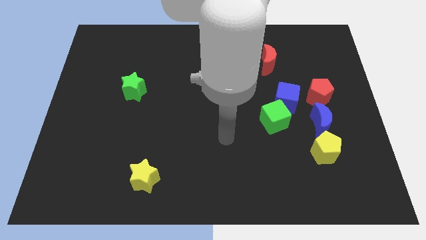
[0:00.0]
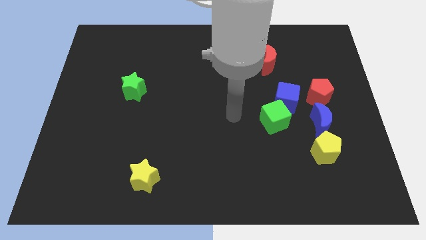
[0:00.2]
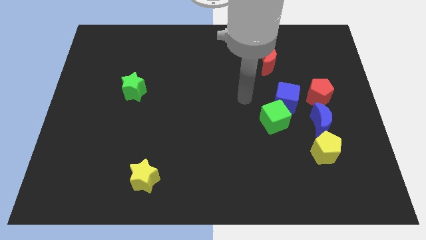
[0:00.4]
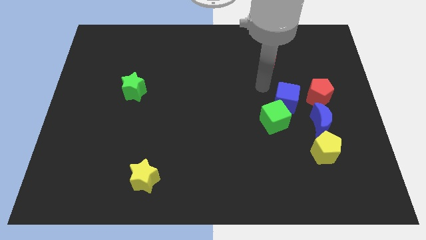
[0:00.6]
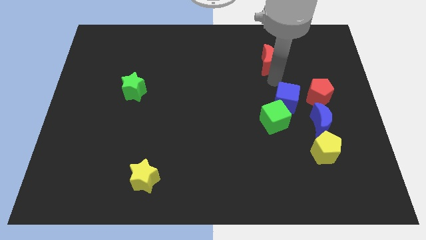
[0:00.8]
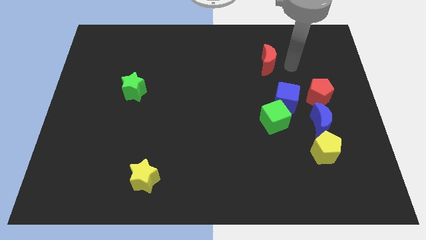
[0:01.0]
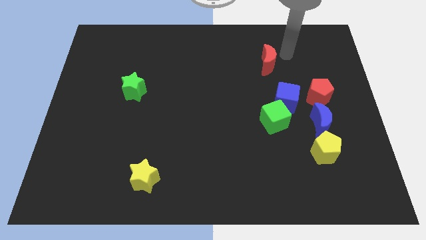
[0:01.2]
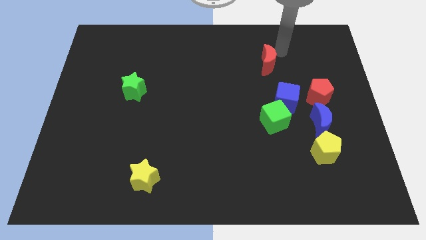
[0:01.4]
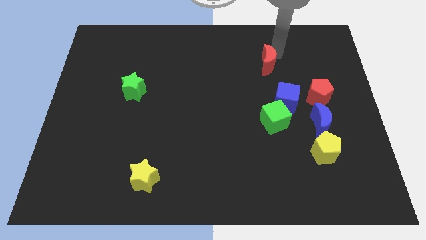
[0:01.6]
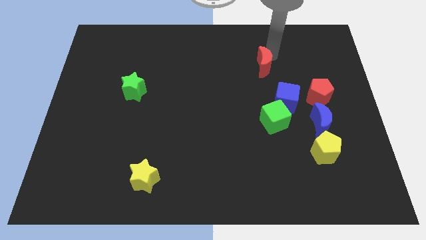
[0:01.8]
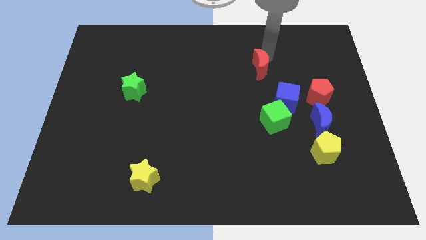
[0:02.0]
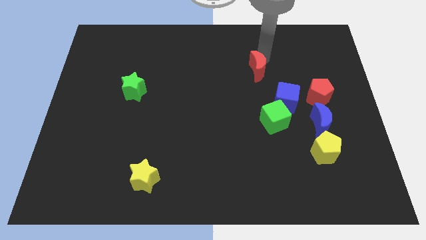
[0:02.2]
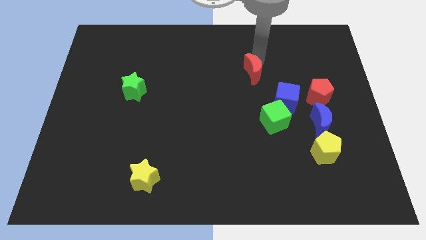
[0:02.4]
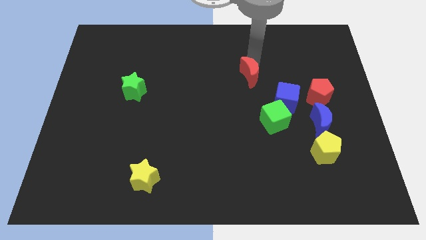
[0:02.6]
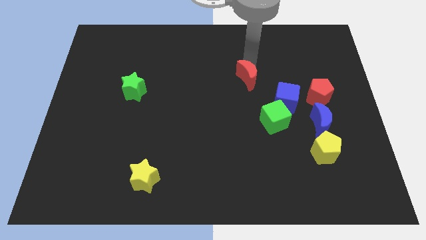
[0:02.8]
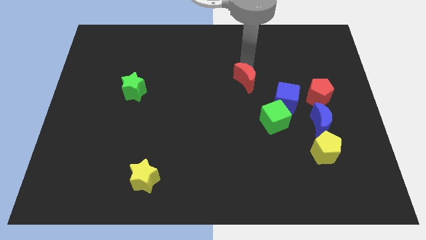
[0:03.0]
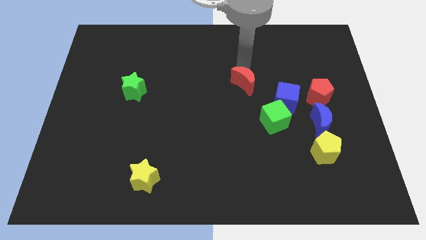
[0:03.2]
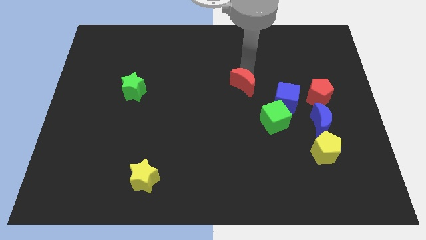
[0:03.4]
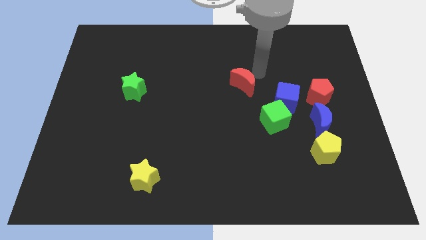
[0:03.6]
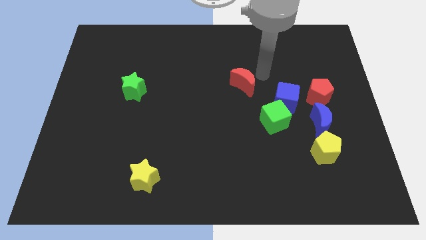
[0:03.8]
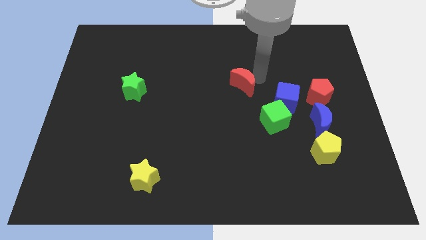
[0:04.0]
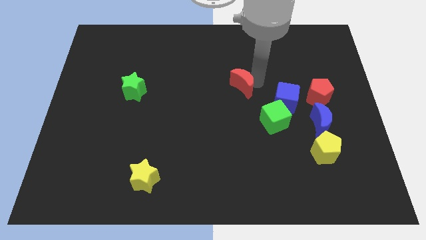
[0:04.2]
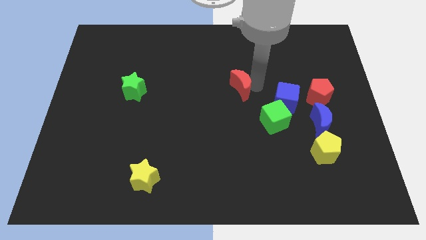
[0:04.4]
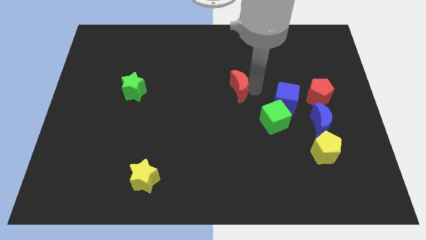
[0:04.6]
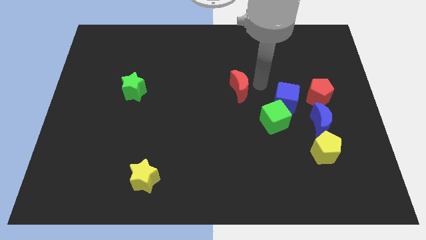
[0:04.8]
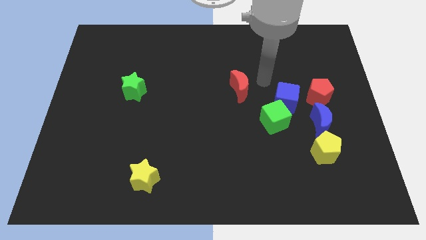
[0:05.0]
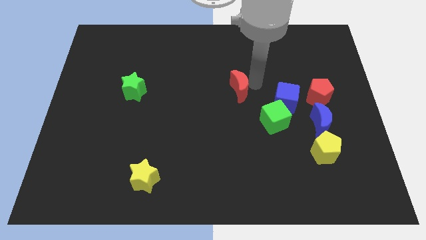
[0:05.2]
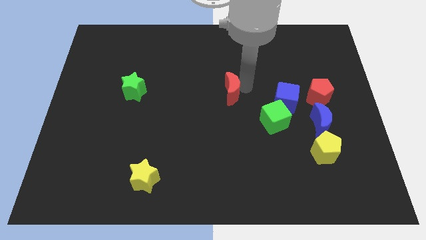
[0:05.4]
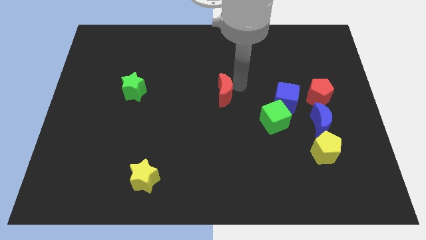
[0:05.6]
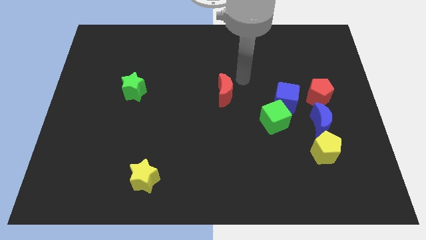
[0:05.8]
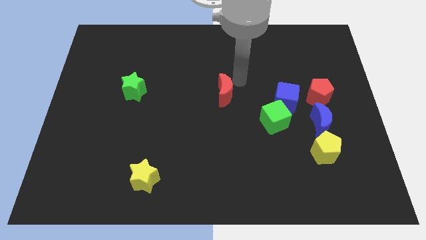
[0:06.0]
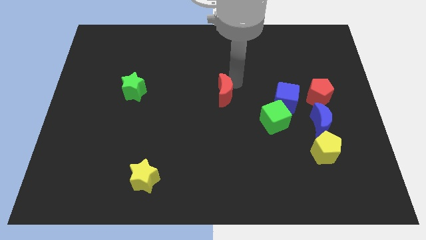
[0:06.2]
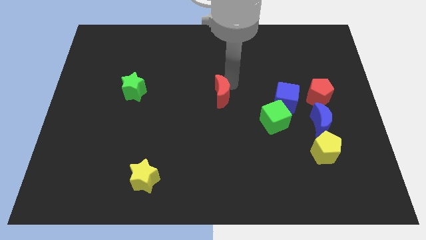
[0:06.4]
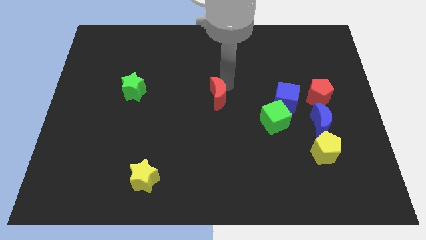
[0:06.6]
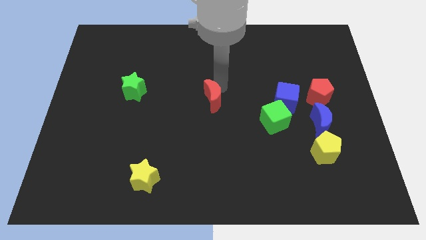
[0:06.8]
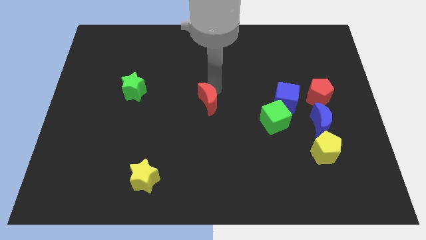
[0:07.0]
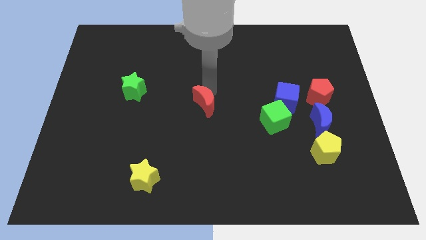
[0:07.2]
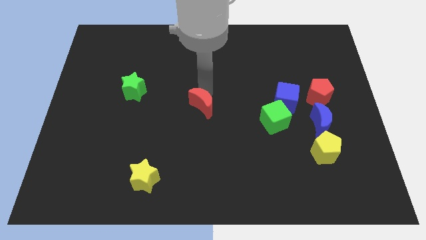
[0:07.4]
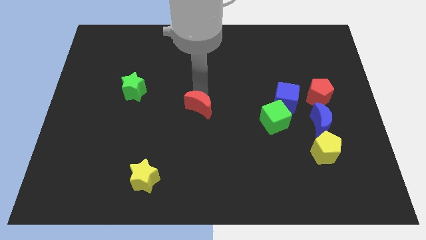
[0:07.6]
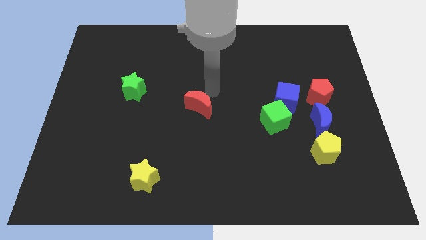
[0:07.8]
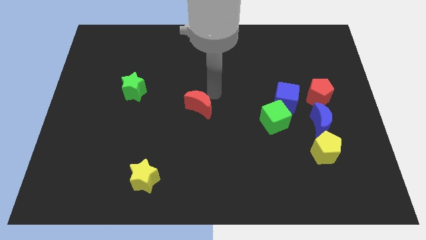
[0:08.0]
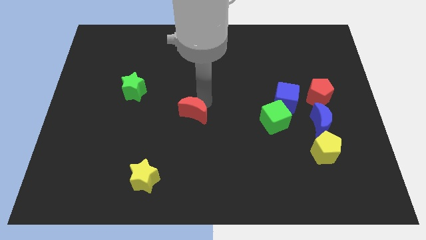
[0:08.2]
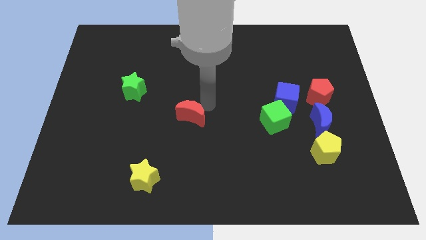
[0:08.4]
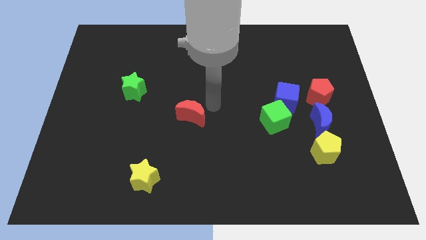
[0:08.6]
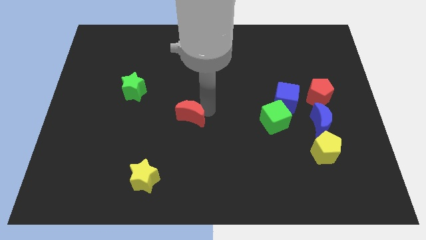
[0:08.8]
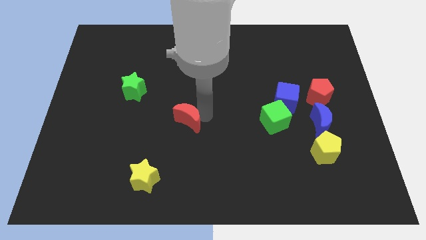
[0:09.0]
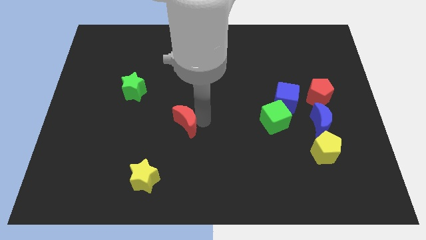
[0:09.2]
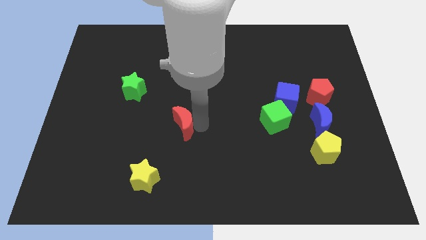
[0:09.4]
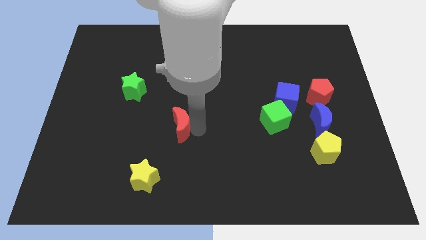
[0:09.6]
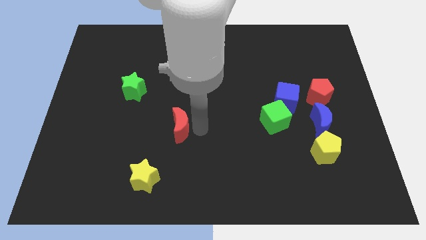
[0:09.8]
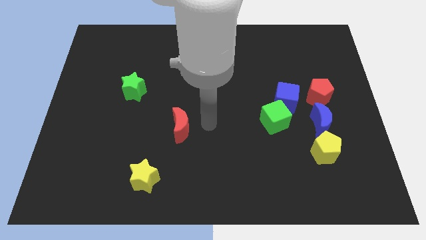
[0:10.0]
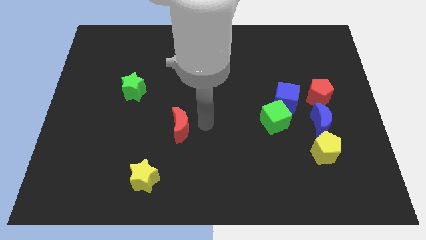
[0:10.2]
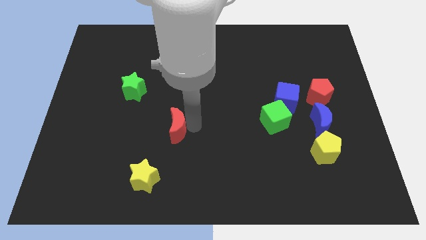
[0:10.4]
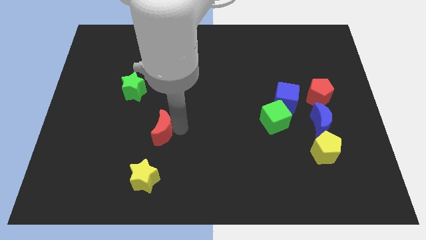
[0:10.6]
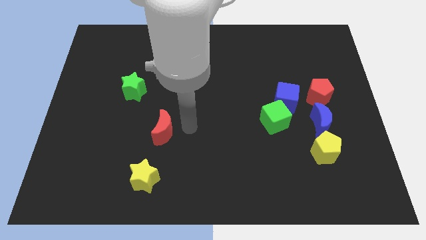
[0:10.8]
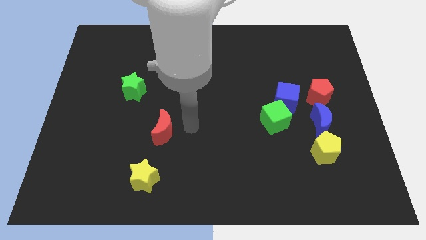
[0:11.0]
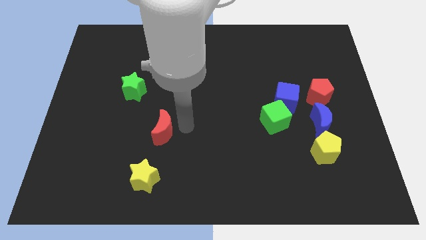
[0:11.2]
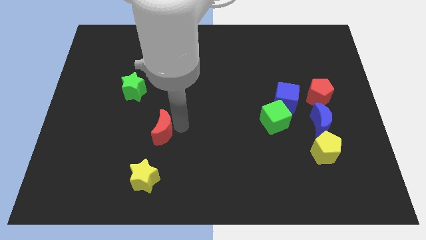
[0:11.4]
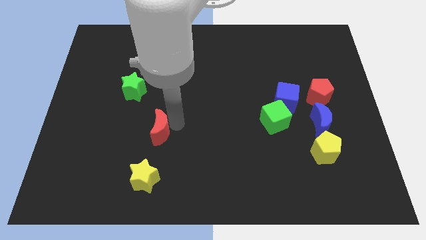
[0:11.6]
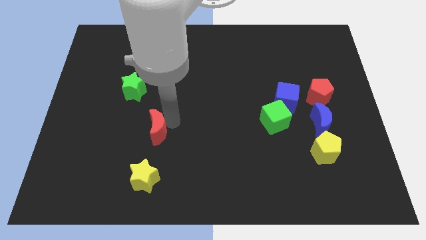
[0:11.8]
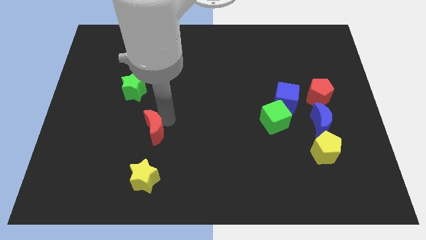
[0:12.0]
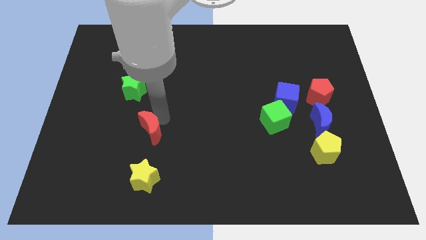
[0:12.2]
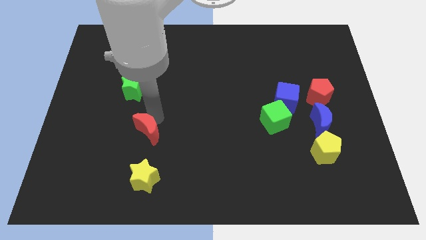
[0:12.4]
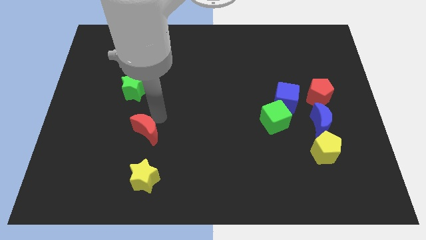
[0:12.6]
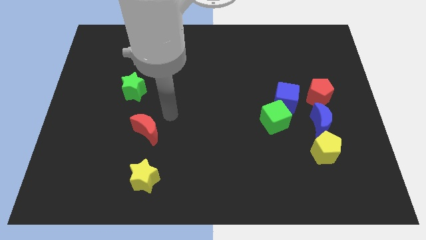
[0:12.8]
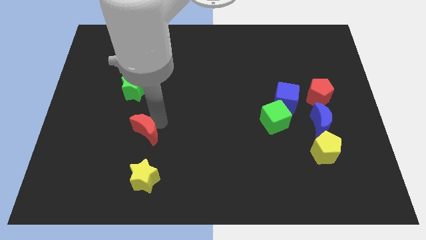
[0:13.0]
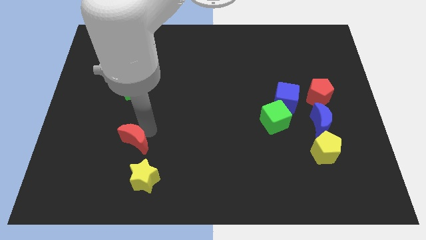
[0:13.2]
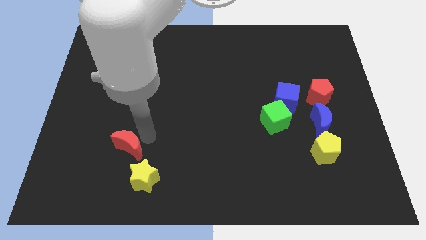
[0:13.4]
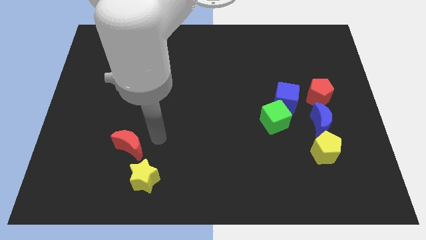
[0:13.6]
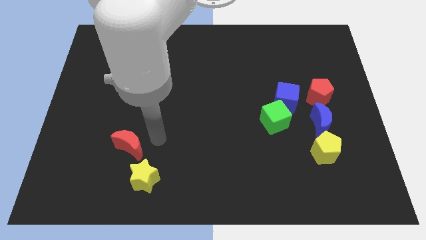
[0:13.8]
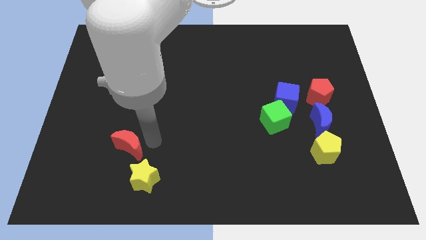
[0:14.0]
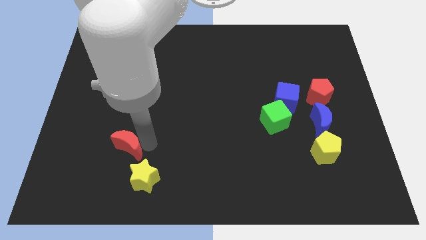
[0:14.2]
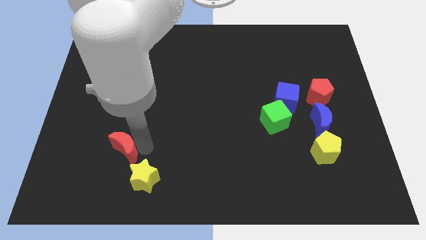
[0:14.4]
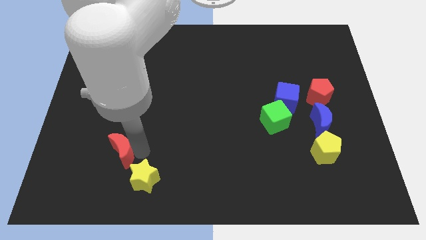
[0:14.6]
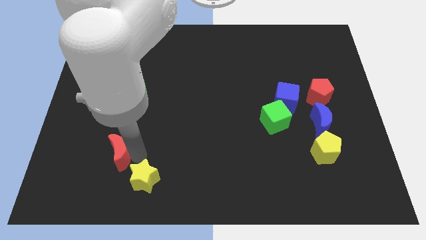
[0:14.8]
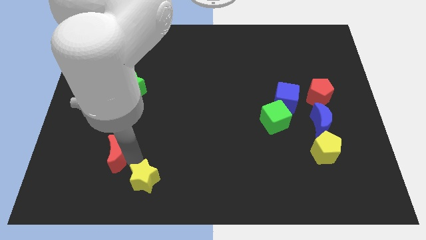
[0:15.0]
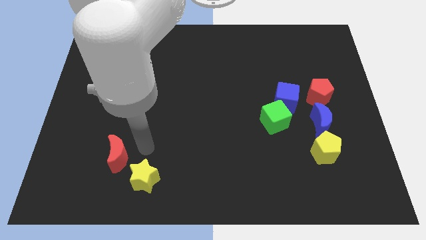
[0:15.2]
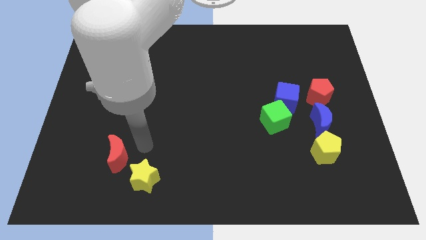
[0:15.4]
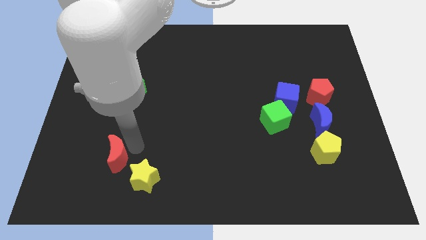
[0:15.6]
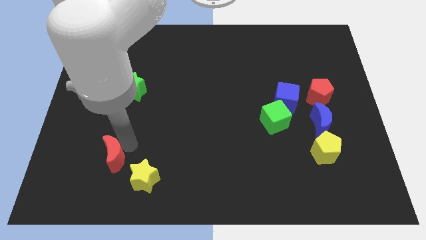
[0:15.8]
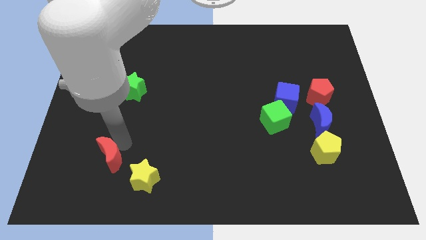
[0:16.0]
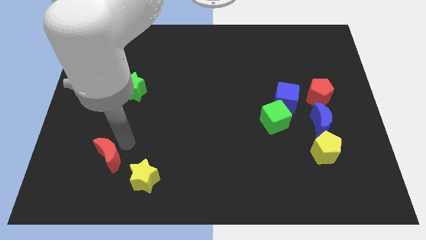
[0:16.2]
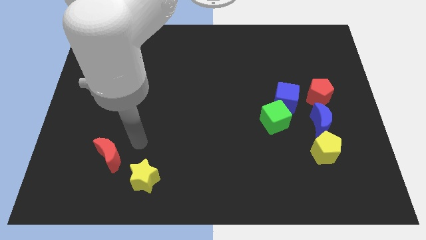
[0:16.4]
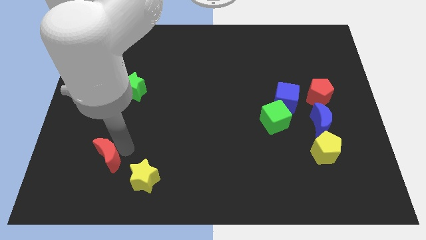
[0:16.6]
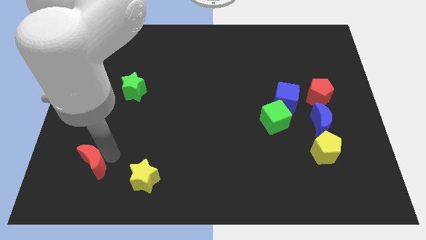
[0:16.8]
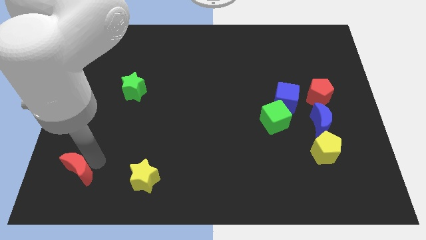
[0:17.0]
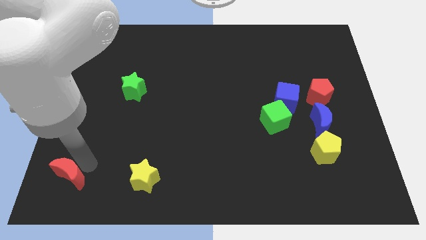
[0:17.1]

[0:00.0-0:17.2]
push the red moon to the bottom left corner
